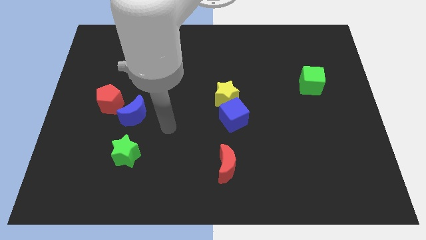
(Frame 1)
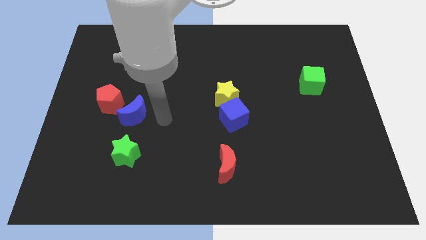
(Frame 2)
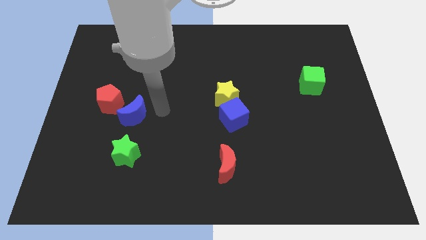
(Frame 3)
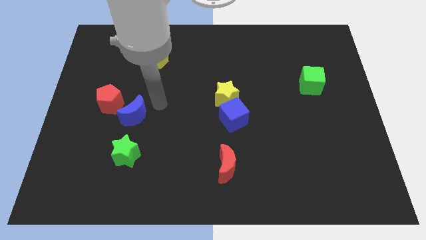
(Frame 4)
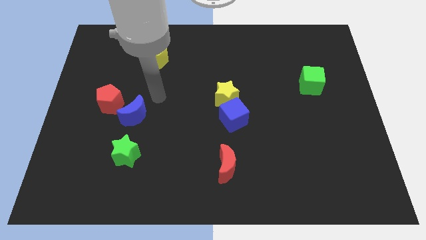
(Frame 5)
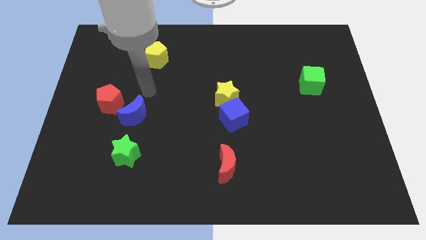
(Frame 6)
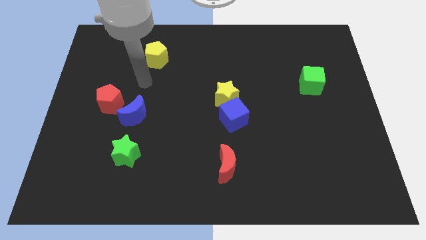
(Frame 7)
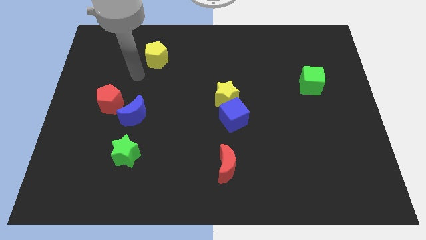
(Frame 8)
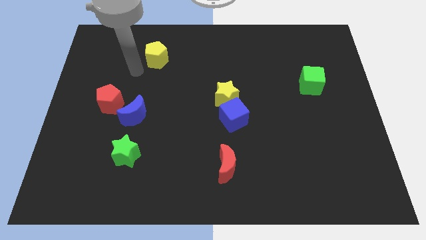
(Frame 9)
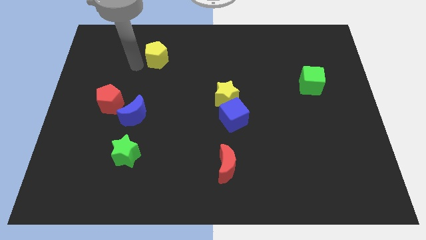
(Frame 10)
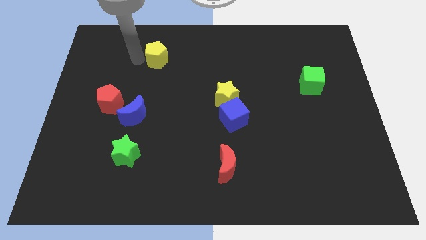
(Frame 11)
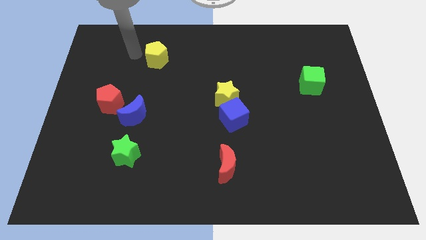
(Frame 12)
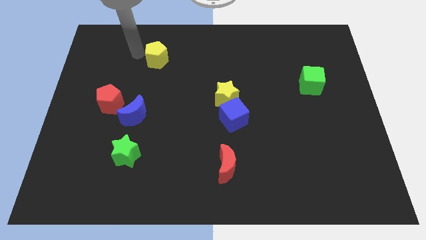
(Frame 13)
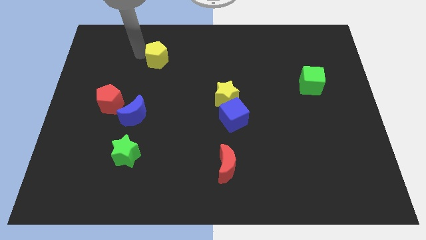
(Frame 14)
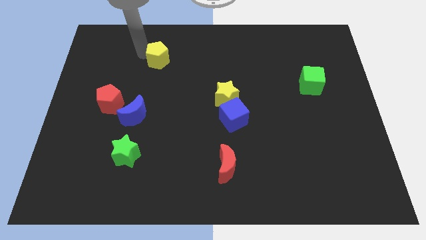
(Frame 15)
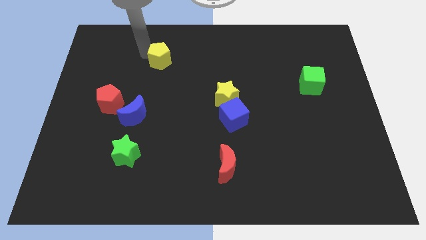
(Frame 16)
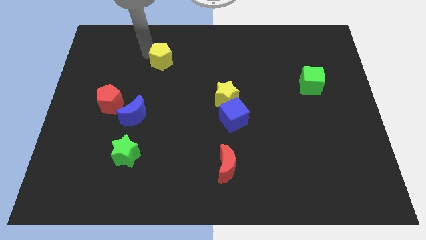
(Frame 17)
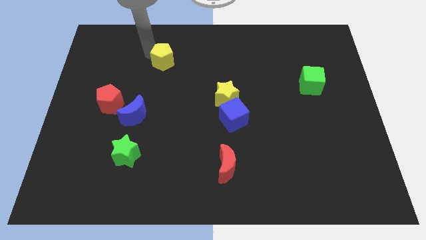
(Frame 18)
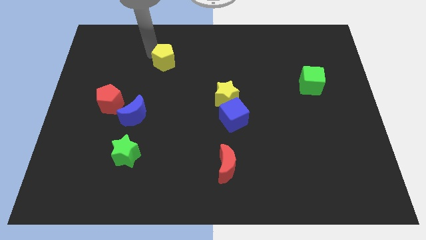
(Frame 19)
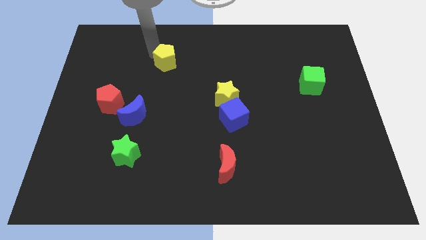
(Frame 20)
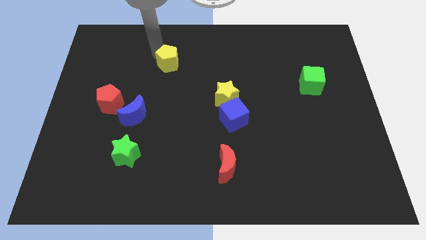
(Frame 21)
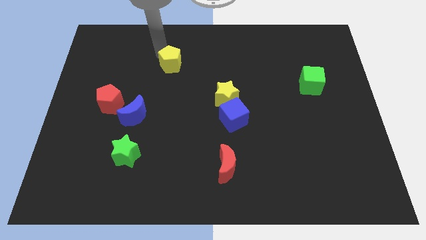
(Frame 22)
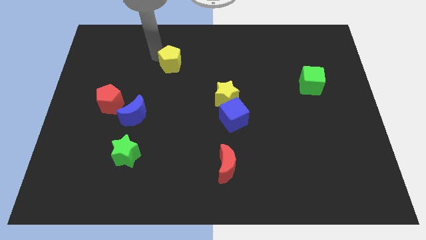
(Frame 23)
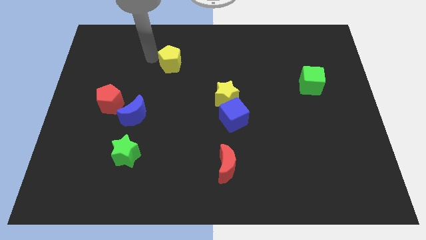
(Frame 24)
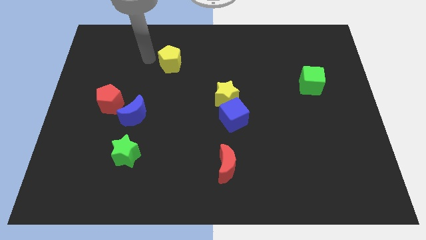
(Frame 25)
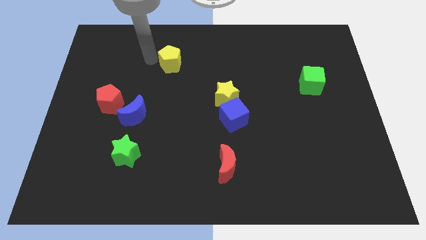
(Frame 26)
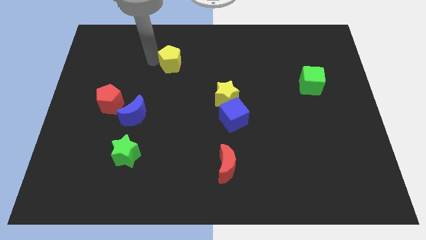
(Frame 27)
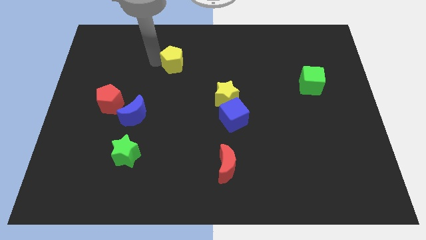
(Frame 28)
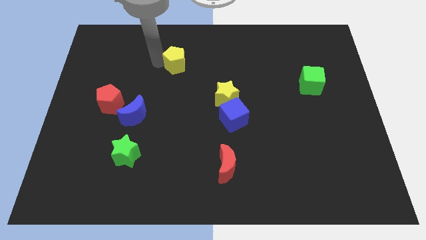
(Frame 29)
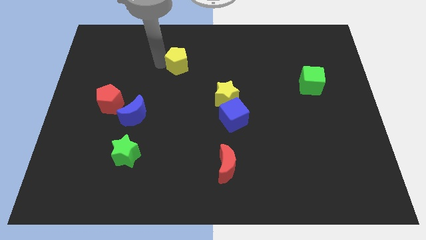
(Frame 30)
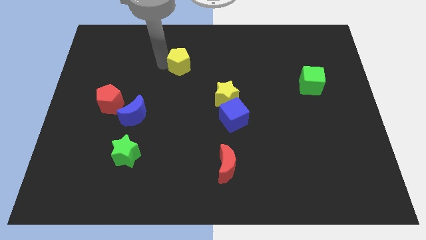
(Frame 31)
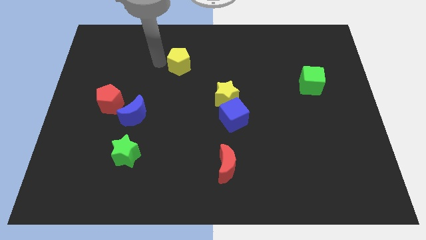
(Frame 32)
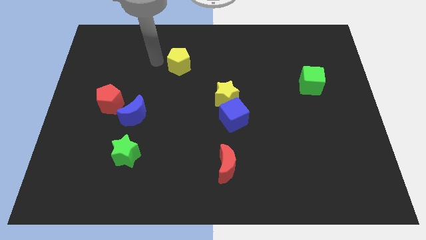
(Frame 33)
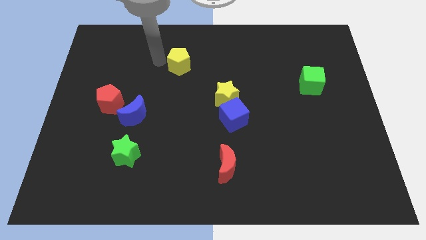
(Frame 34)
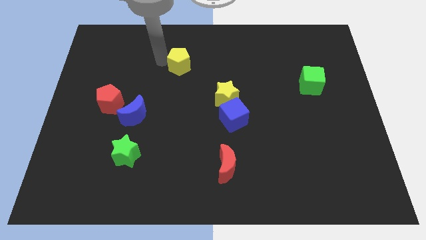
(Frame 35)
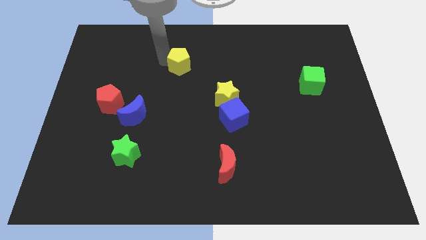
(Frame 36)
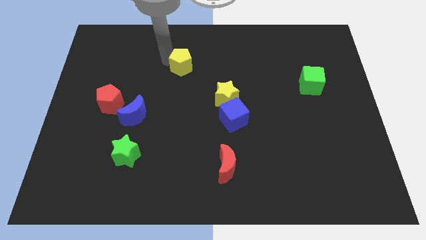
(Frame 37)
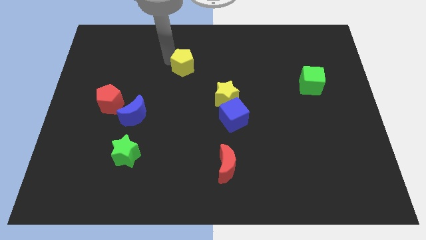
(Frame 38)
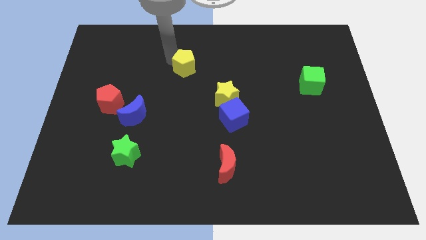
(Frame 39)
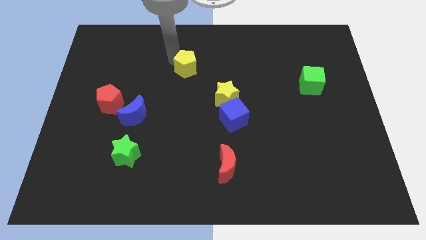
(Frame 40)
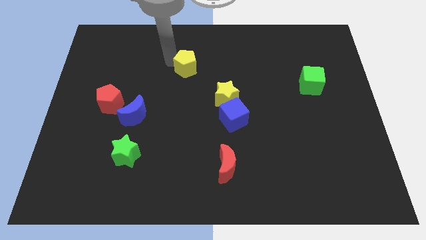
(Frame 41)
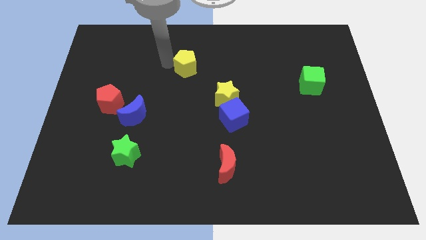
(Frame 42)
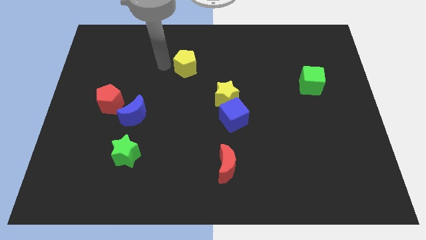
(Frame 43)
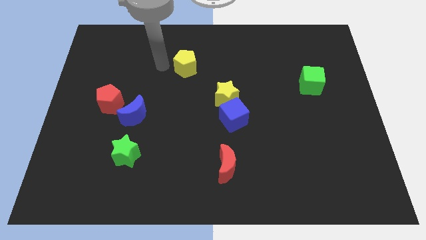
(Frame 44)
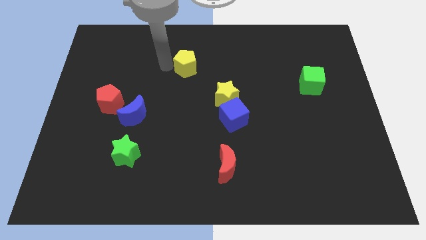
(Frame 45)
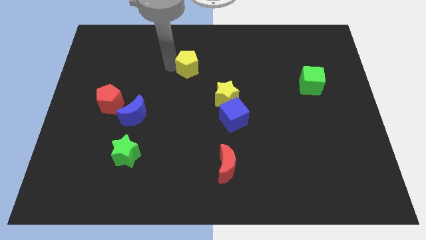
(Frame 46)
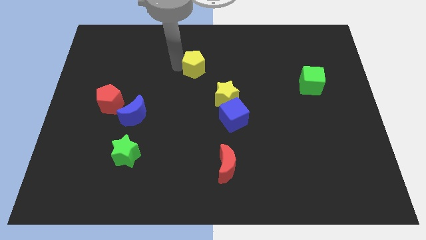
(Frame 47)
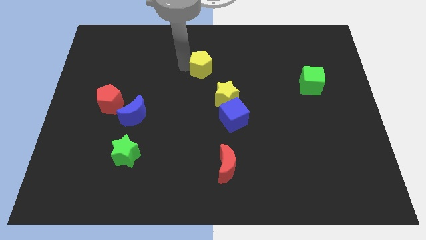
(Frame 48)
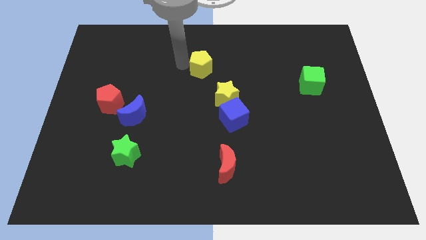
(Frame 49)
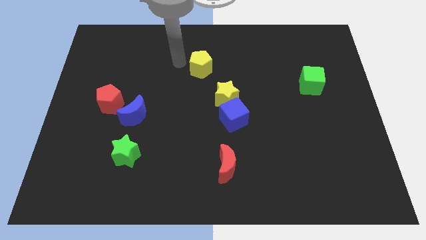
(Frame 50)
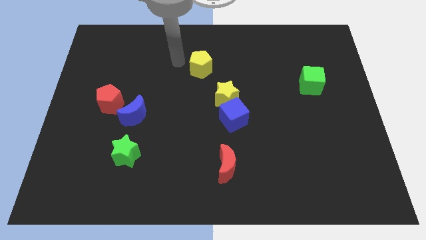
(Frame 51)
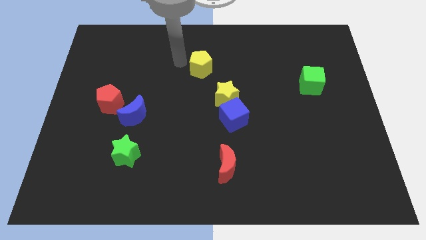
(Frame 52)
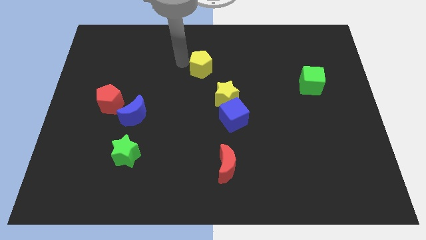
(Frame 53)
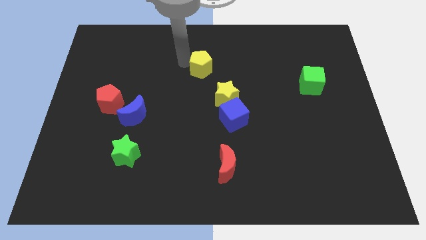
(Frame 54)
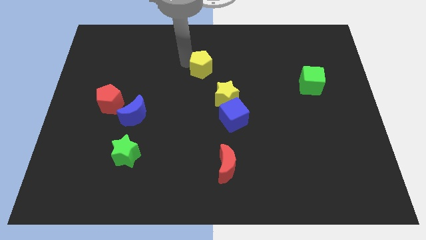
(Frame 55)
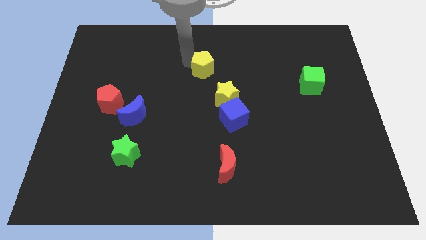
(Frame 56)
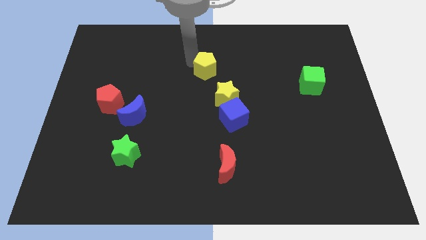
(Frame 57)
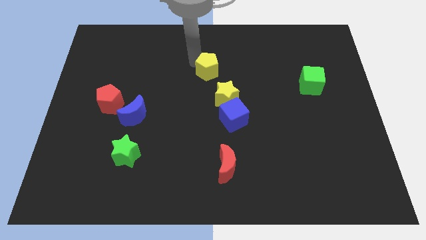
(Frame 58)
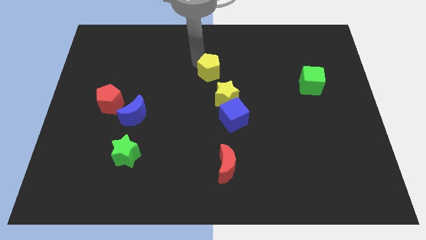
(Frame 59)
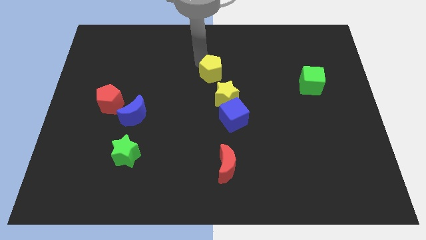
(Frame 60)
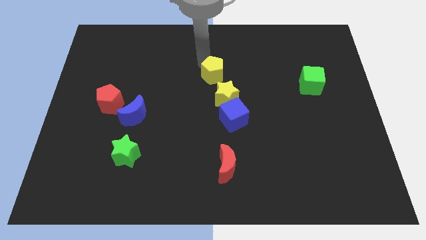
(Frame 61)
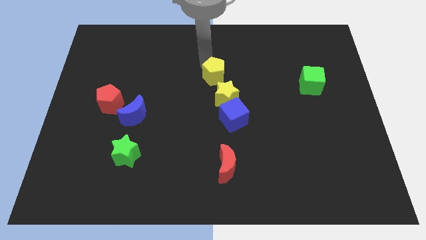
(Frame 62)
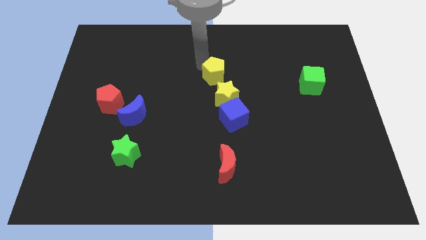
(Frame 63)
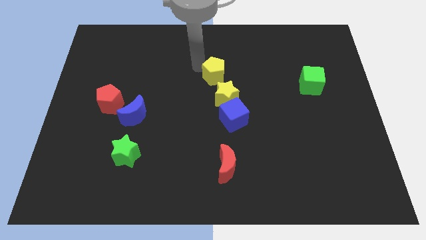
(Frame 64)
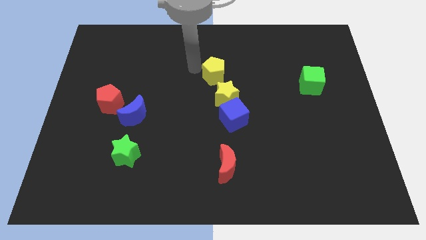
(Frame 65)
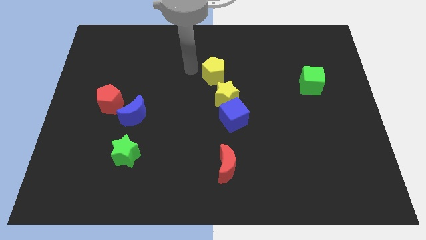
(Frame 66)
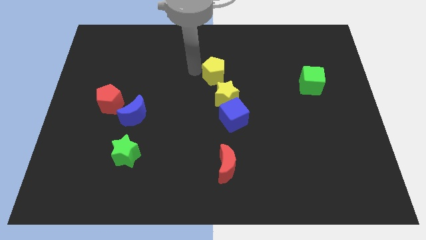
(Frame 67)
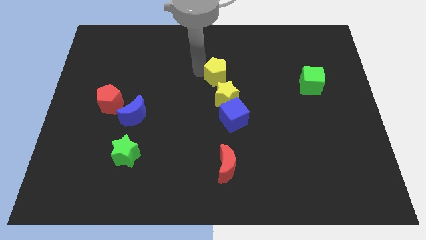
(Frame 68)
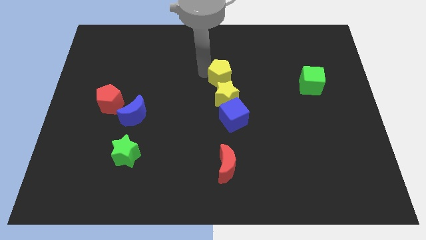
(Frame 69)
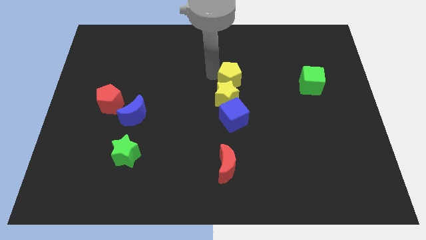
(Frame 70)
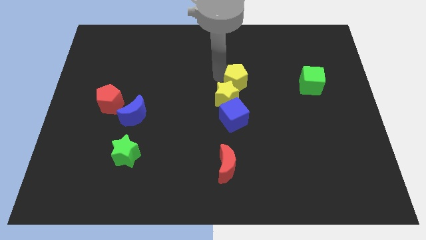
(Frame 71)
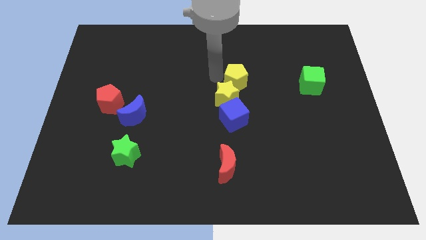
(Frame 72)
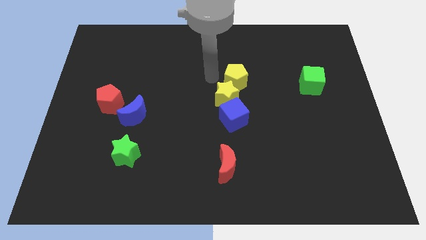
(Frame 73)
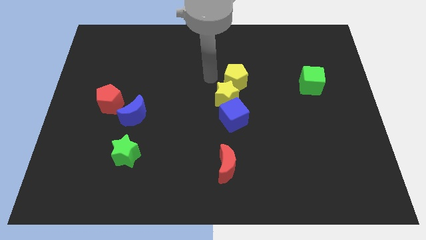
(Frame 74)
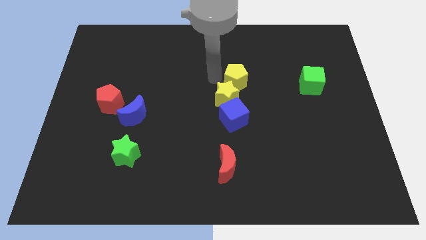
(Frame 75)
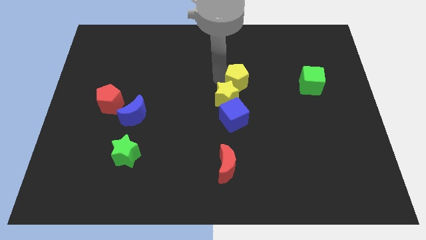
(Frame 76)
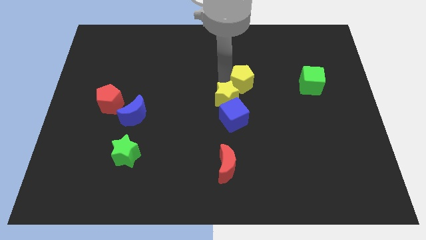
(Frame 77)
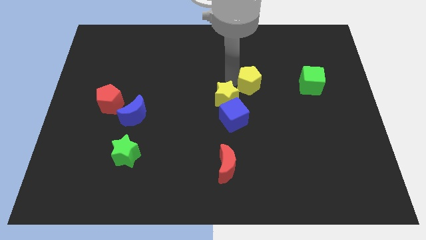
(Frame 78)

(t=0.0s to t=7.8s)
move the yellow pentagon to the left of the green cube
